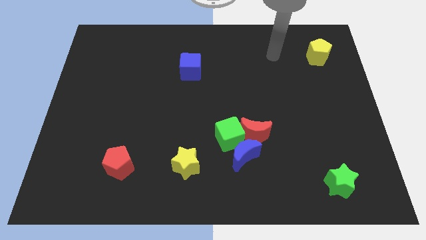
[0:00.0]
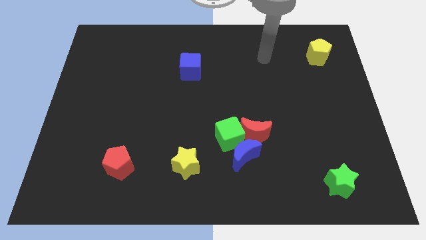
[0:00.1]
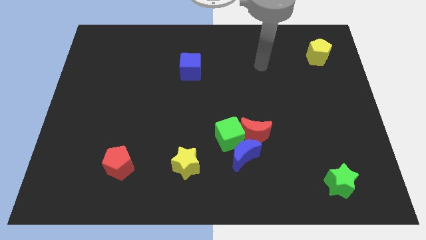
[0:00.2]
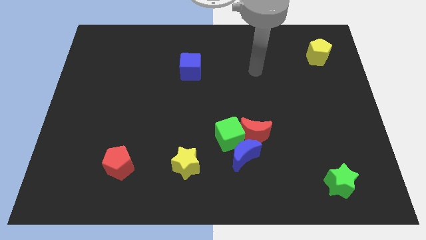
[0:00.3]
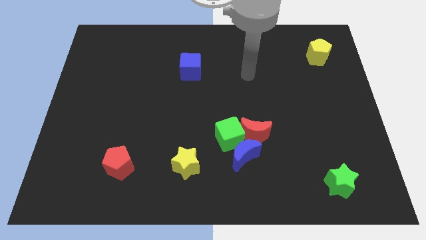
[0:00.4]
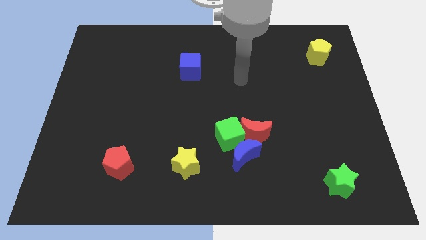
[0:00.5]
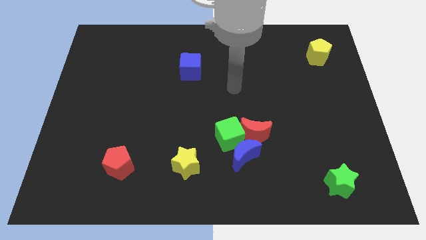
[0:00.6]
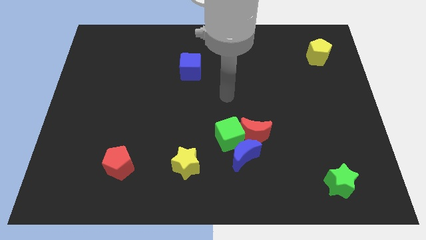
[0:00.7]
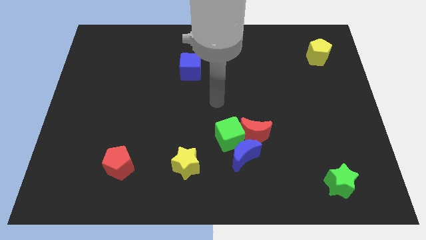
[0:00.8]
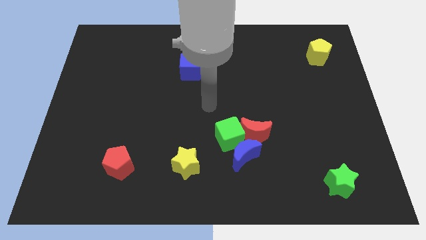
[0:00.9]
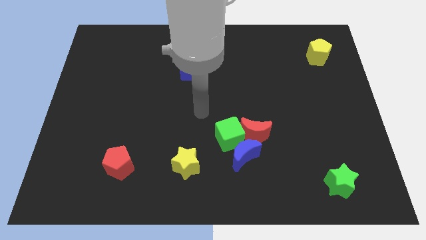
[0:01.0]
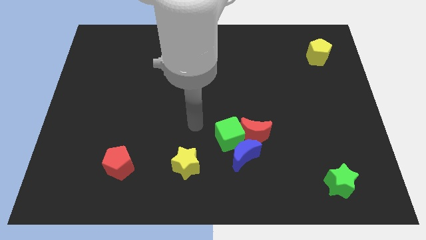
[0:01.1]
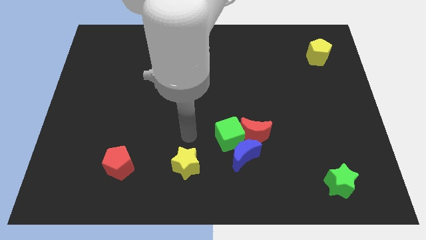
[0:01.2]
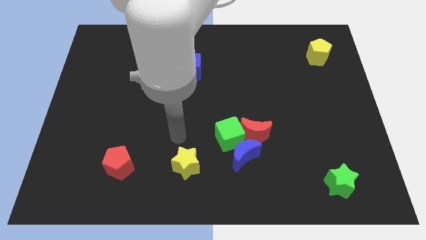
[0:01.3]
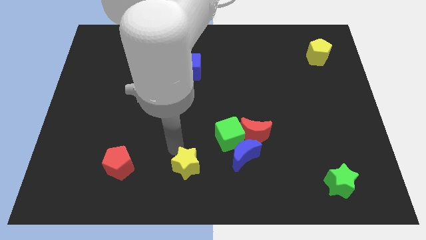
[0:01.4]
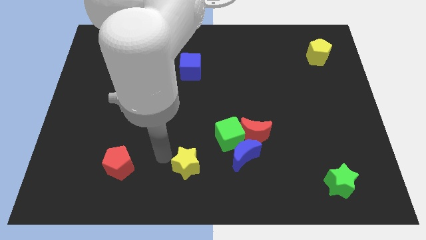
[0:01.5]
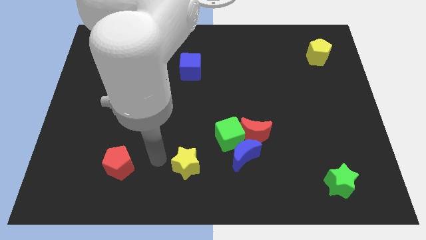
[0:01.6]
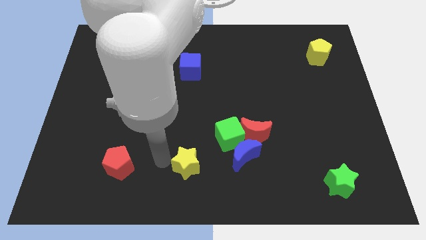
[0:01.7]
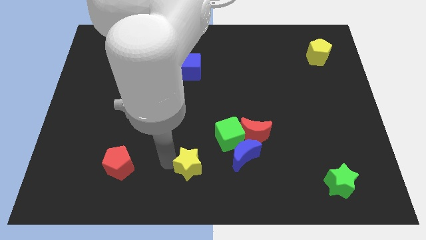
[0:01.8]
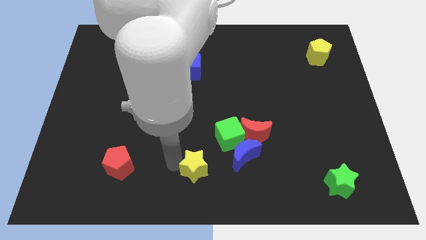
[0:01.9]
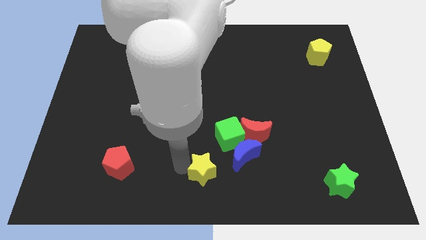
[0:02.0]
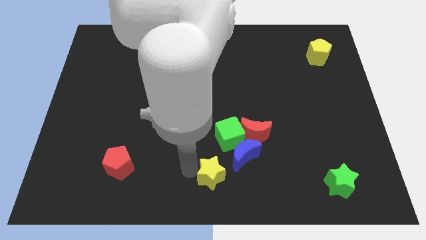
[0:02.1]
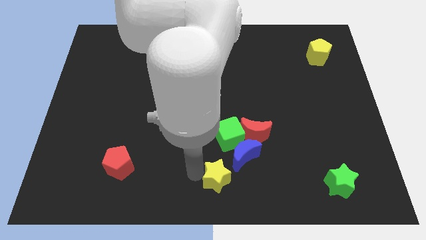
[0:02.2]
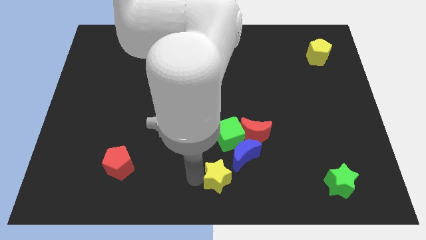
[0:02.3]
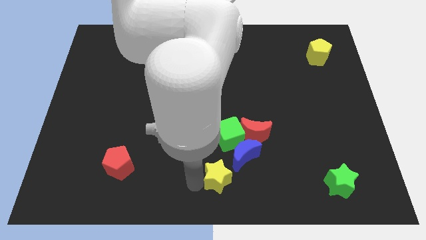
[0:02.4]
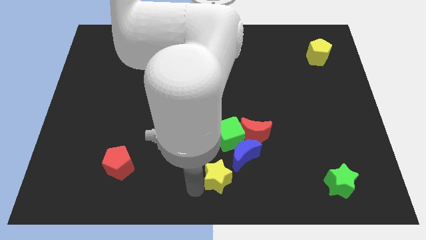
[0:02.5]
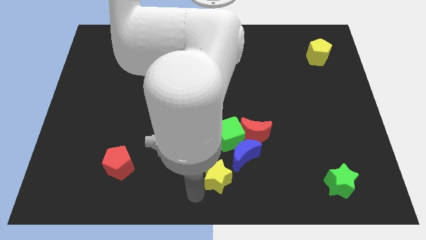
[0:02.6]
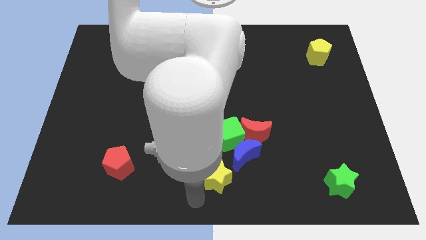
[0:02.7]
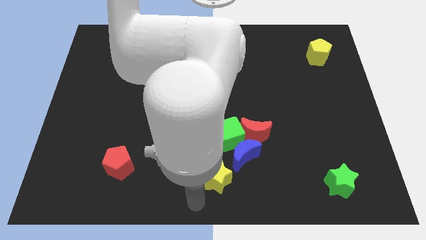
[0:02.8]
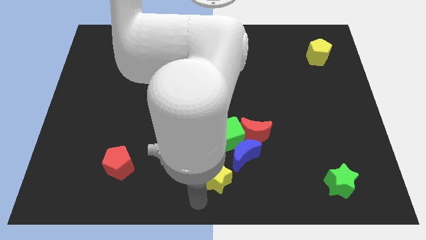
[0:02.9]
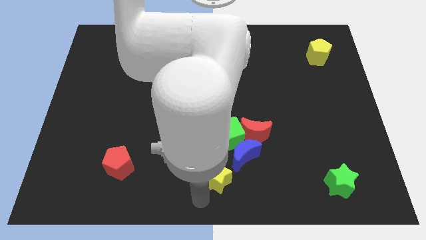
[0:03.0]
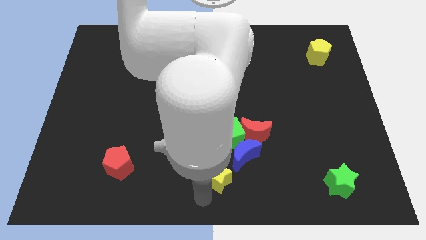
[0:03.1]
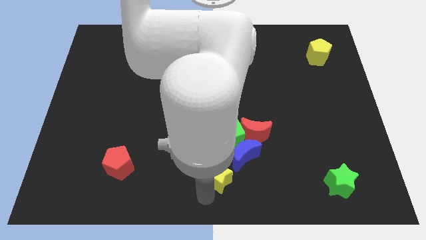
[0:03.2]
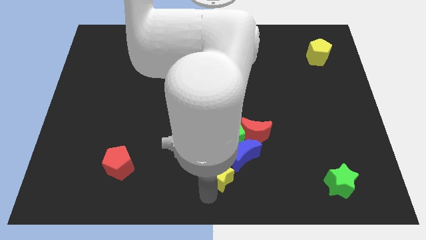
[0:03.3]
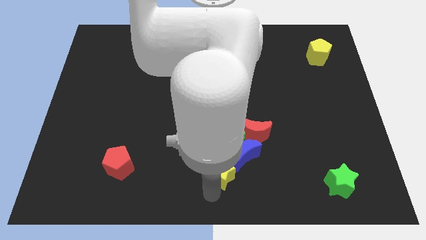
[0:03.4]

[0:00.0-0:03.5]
push the yellow star a bit right

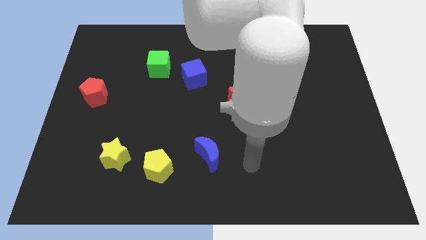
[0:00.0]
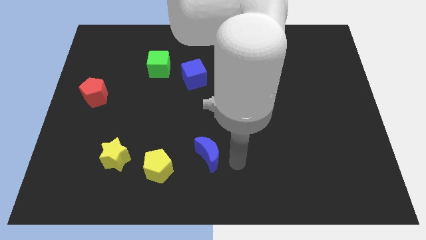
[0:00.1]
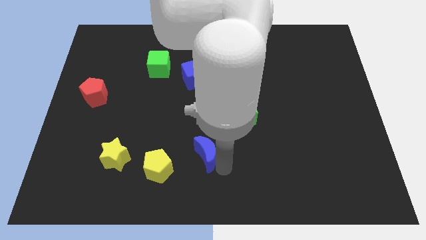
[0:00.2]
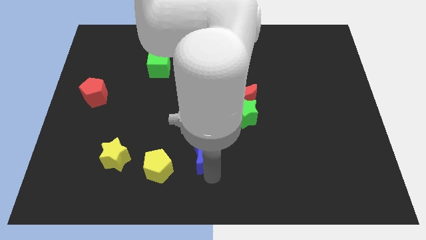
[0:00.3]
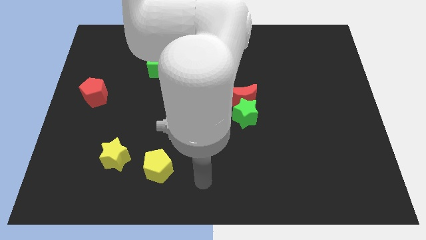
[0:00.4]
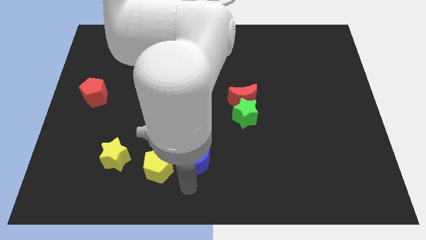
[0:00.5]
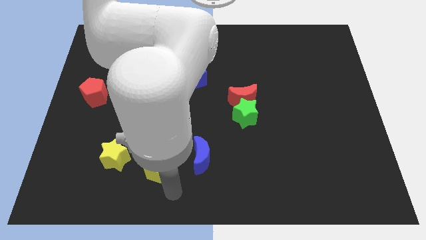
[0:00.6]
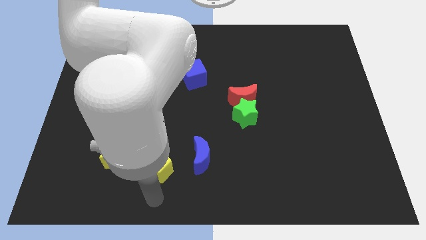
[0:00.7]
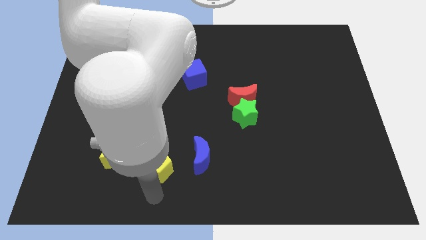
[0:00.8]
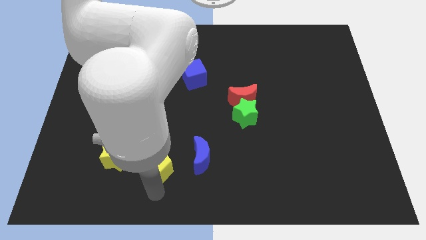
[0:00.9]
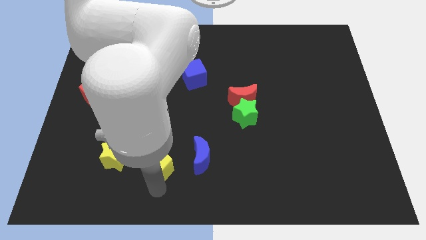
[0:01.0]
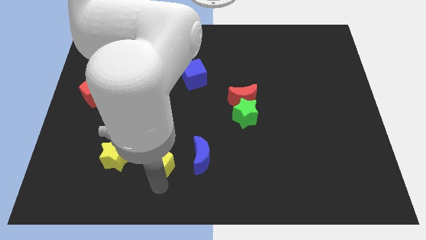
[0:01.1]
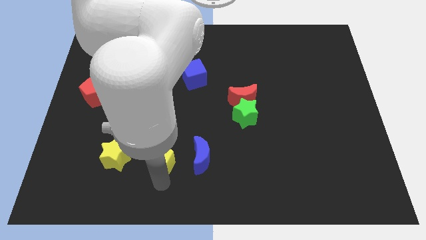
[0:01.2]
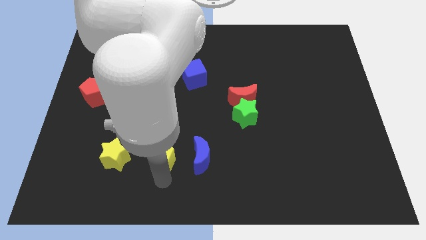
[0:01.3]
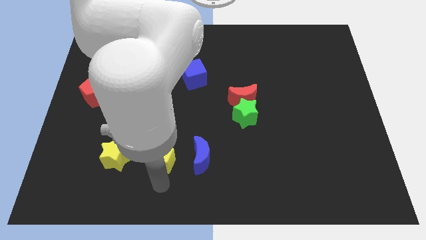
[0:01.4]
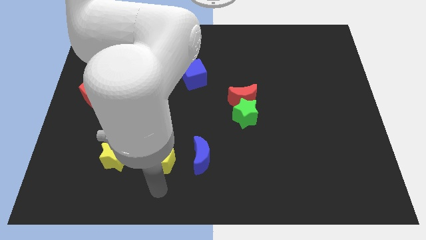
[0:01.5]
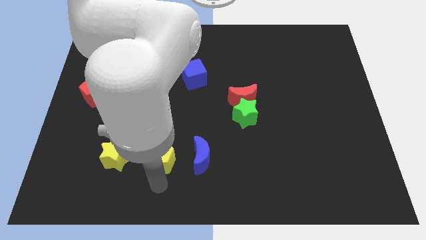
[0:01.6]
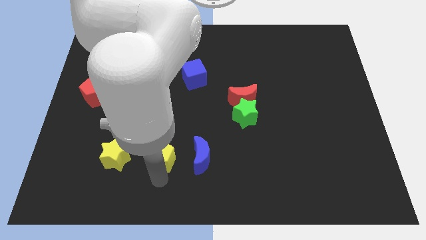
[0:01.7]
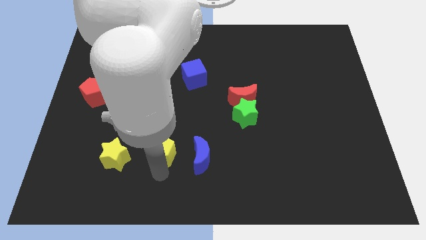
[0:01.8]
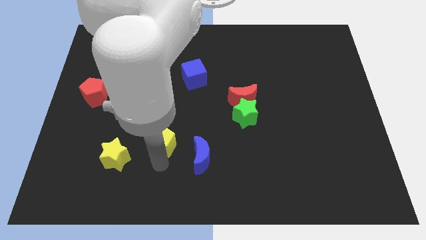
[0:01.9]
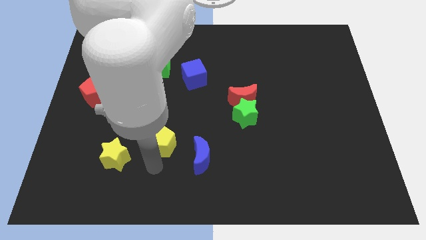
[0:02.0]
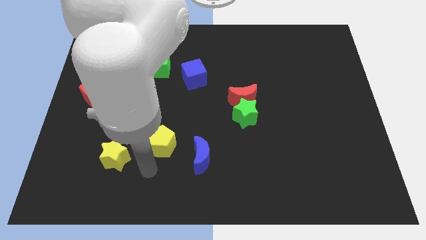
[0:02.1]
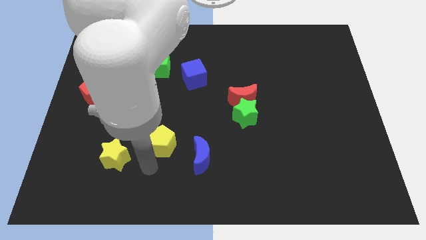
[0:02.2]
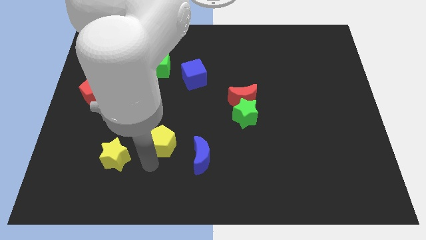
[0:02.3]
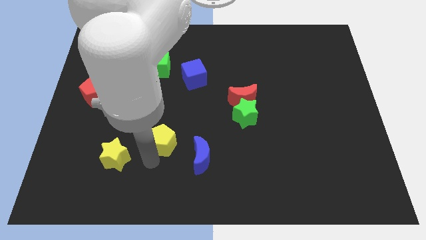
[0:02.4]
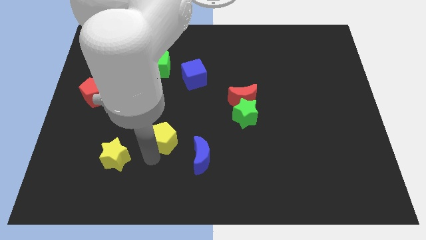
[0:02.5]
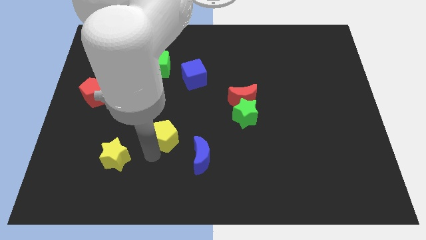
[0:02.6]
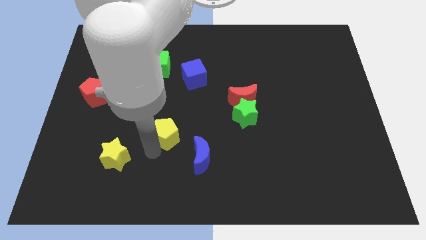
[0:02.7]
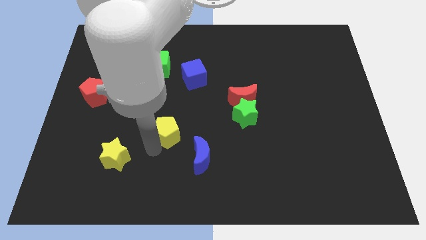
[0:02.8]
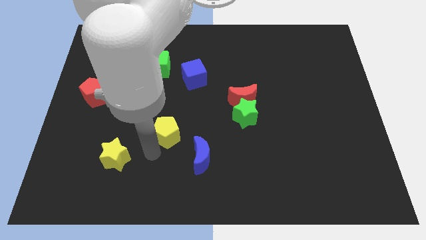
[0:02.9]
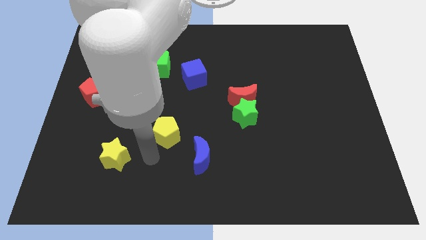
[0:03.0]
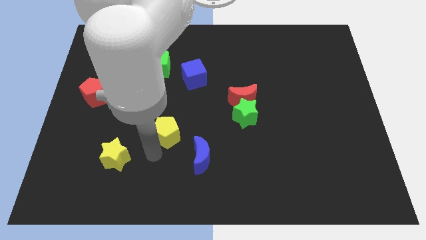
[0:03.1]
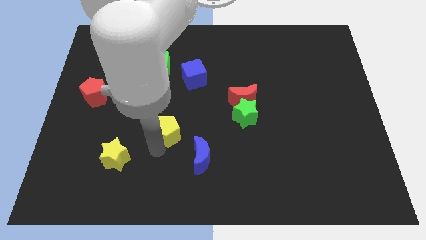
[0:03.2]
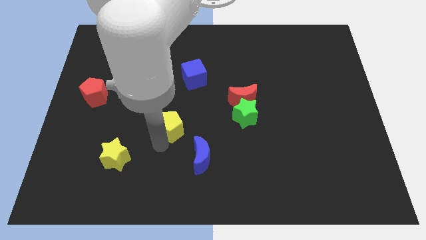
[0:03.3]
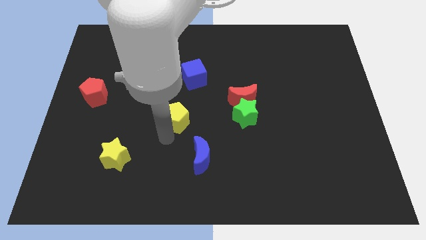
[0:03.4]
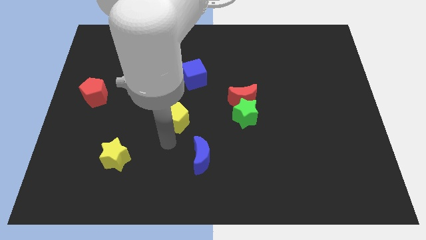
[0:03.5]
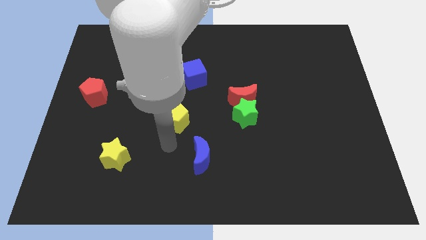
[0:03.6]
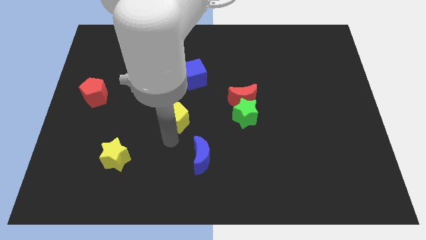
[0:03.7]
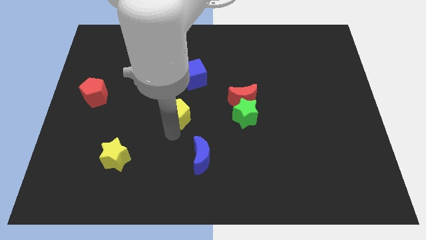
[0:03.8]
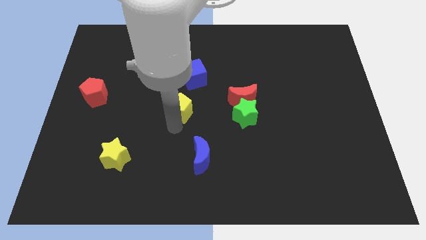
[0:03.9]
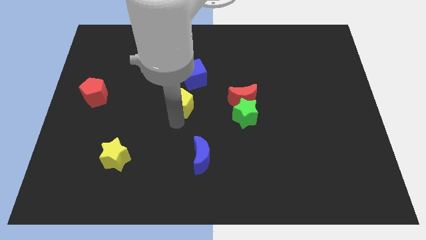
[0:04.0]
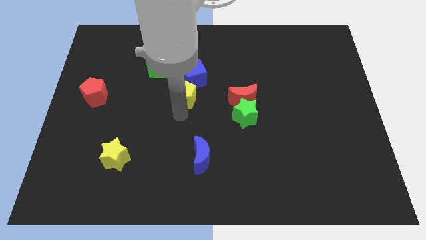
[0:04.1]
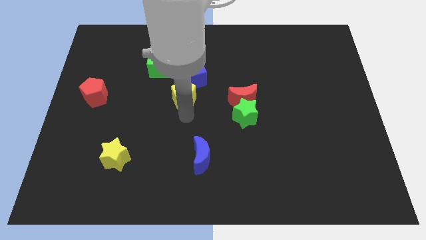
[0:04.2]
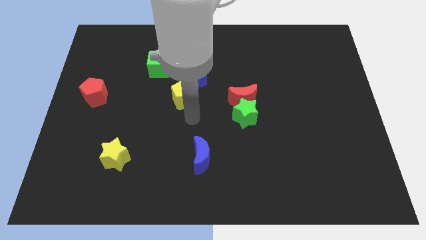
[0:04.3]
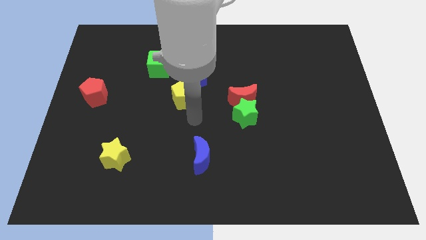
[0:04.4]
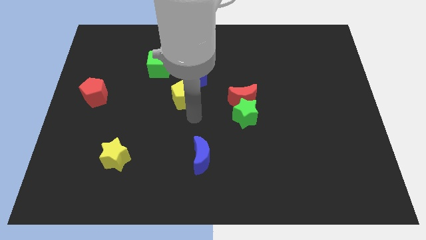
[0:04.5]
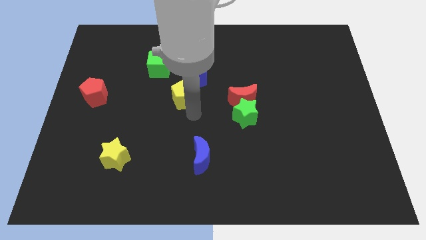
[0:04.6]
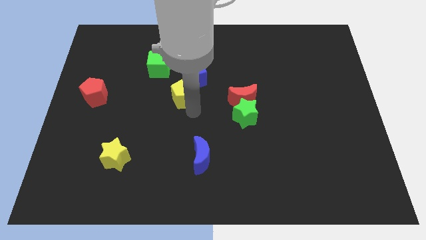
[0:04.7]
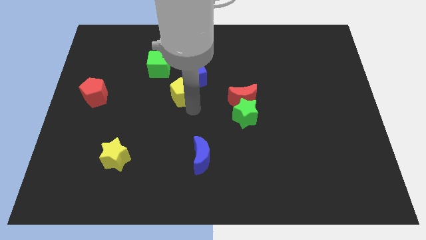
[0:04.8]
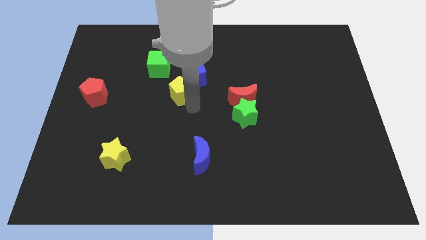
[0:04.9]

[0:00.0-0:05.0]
move the yellow pentagon upwards
